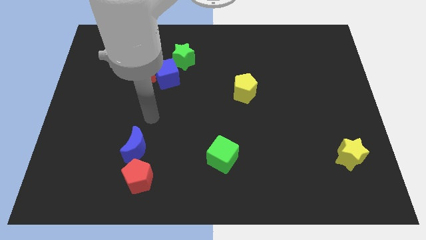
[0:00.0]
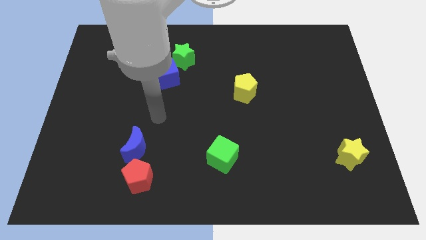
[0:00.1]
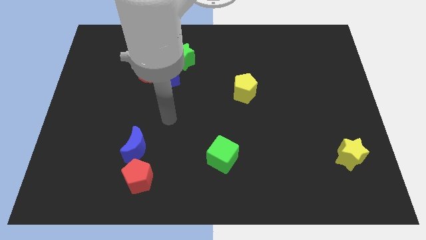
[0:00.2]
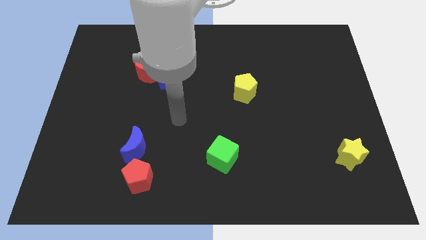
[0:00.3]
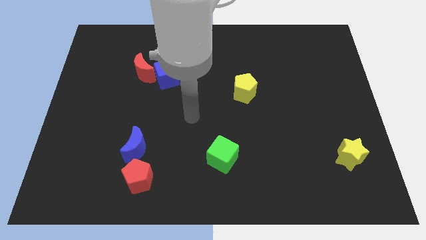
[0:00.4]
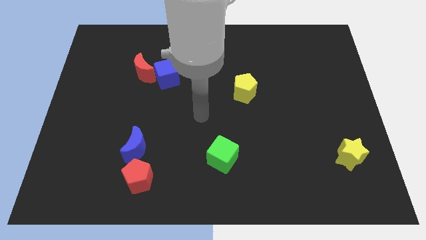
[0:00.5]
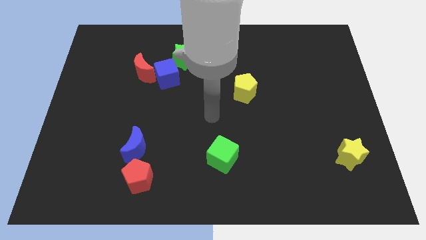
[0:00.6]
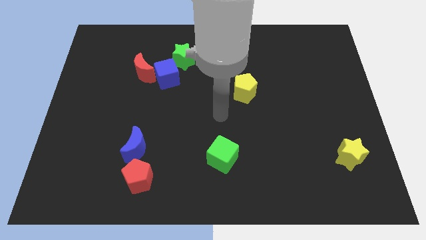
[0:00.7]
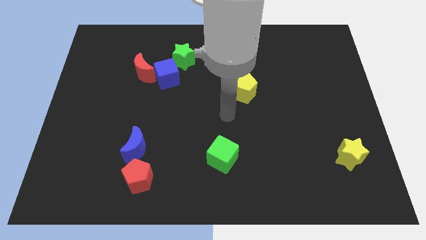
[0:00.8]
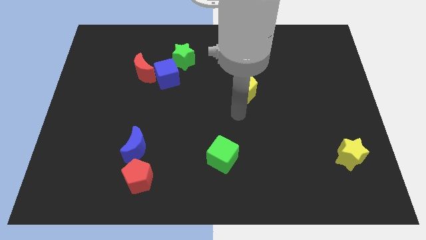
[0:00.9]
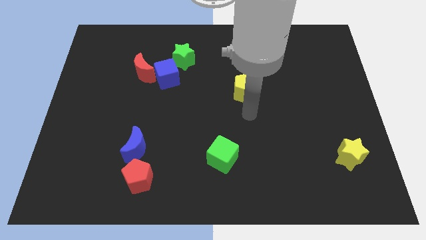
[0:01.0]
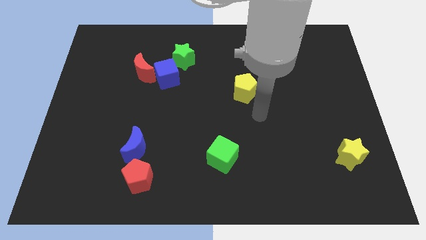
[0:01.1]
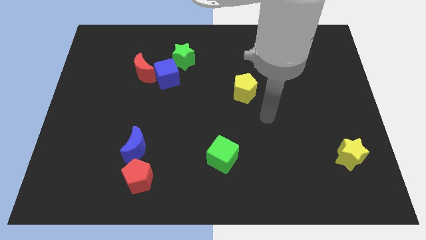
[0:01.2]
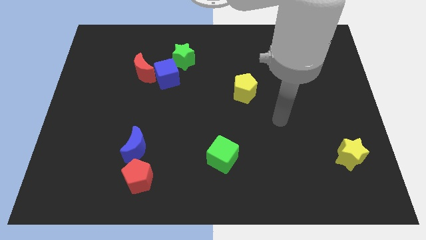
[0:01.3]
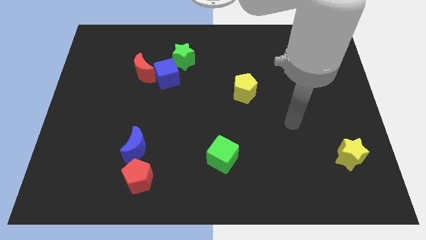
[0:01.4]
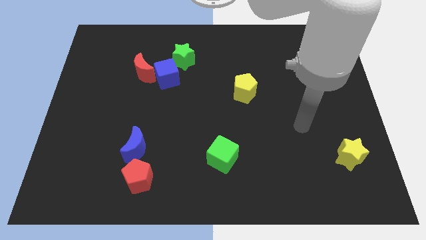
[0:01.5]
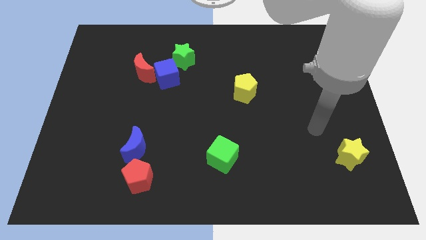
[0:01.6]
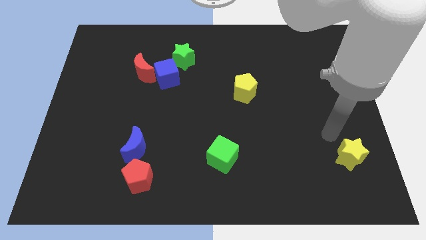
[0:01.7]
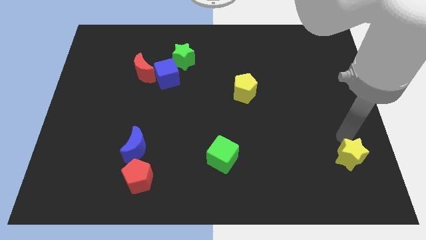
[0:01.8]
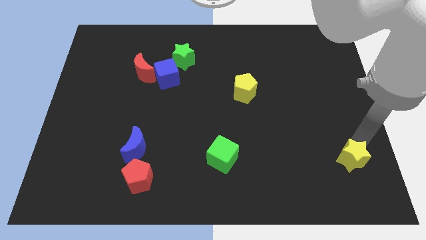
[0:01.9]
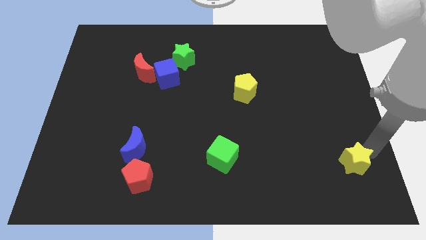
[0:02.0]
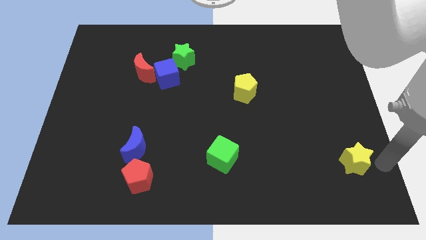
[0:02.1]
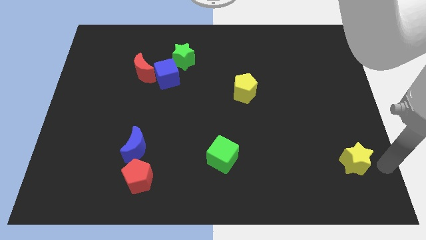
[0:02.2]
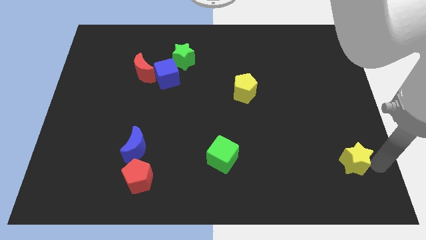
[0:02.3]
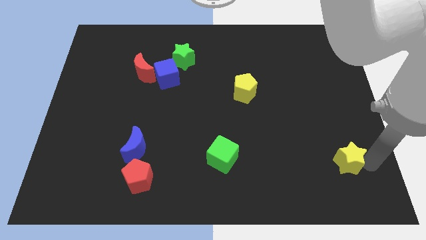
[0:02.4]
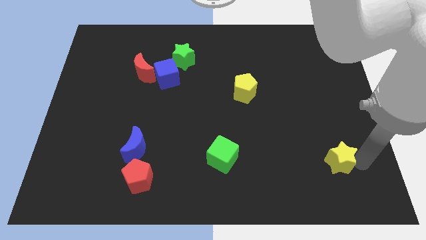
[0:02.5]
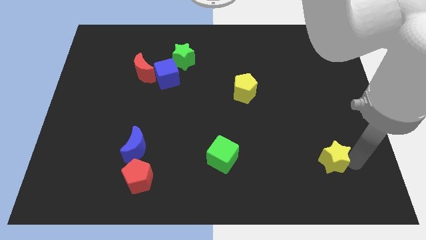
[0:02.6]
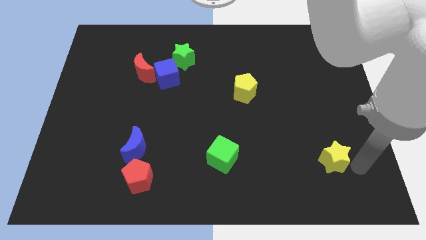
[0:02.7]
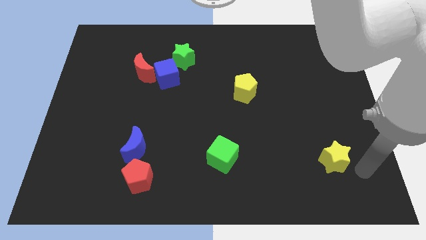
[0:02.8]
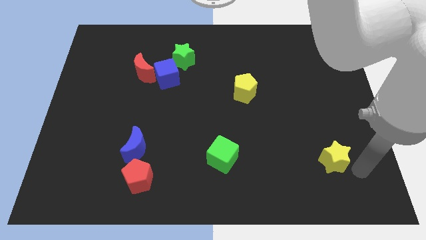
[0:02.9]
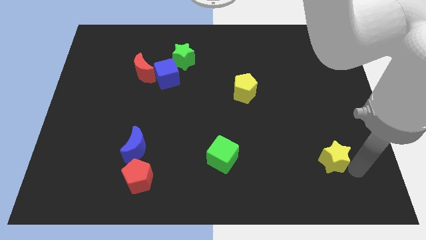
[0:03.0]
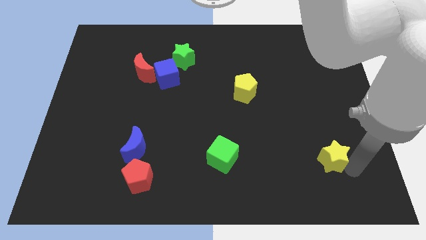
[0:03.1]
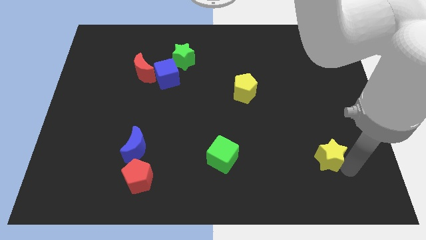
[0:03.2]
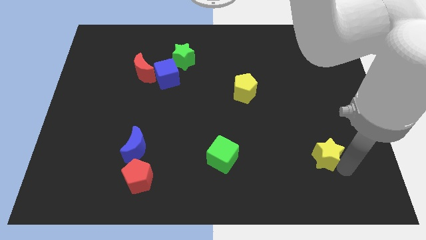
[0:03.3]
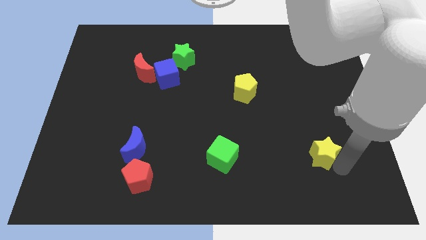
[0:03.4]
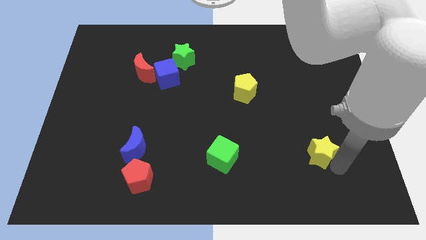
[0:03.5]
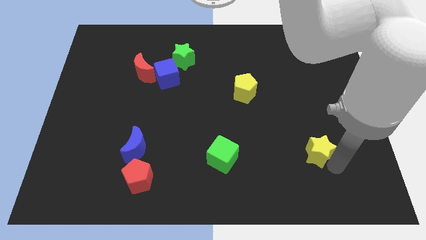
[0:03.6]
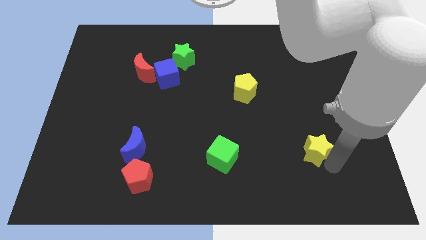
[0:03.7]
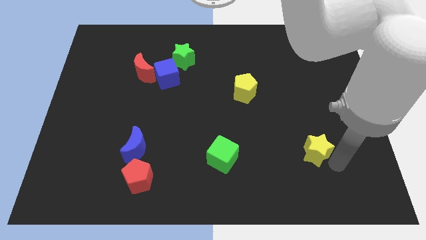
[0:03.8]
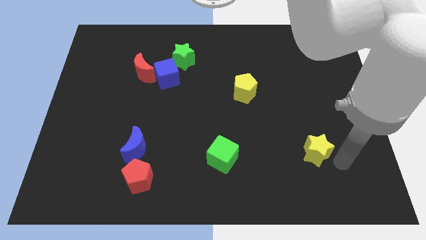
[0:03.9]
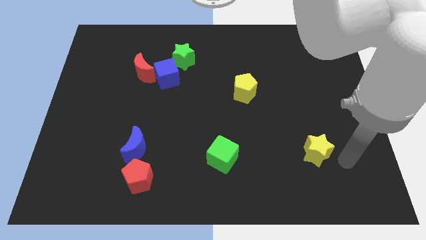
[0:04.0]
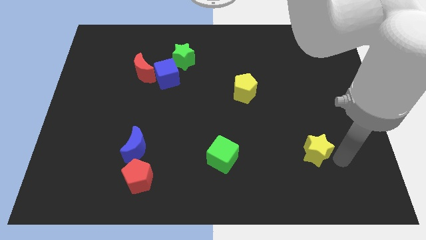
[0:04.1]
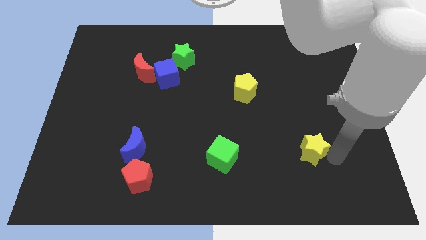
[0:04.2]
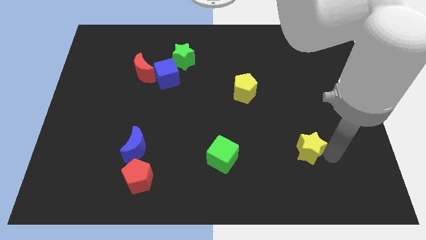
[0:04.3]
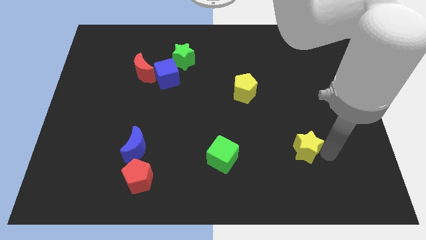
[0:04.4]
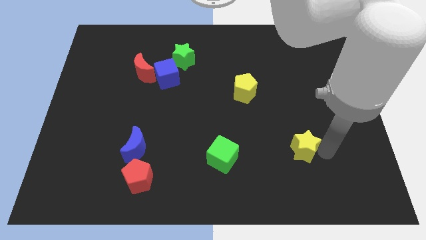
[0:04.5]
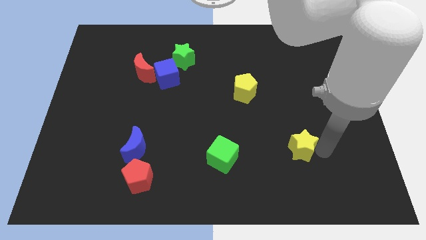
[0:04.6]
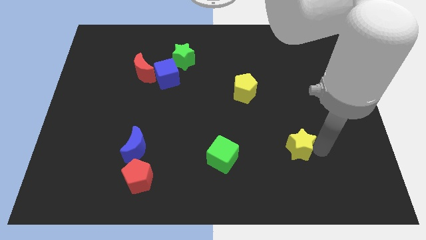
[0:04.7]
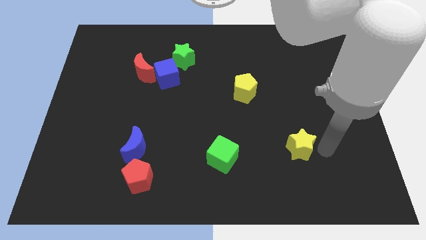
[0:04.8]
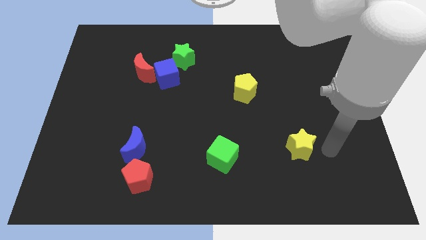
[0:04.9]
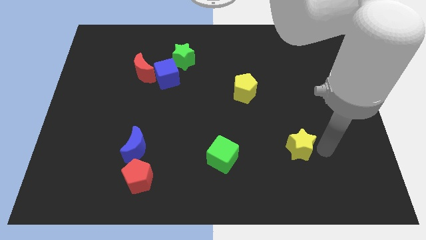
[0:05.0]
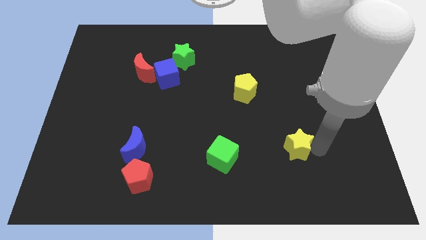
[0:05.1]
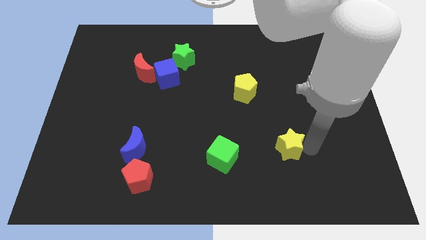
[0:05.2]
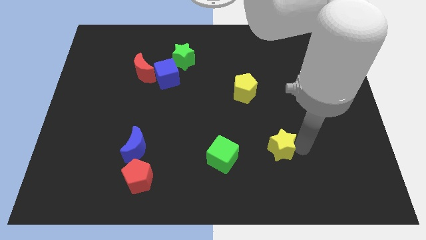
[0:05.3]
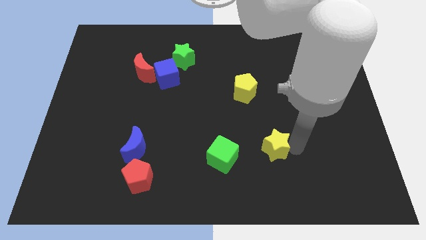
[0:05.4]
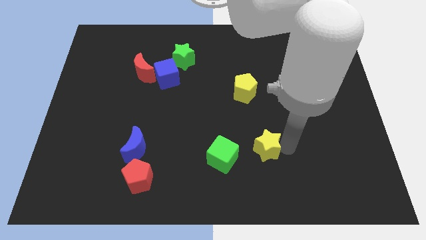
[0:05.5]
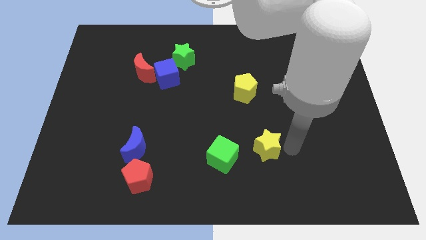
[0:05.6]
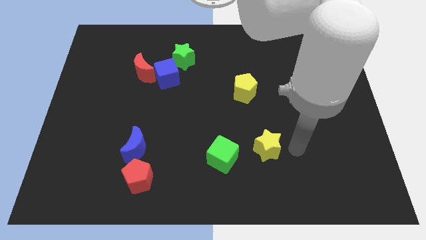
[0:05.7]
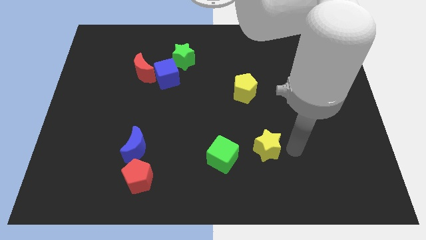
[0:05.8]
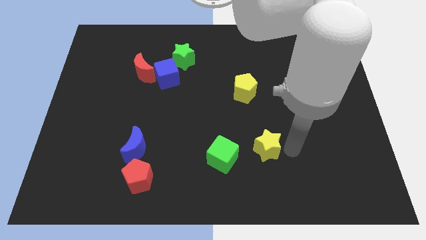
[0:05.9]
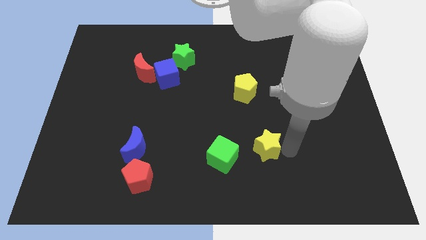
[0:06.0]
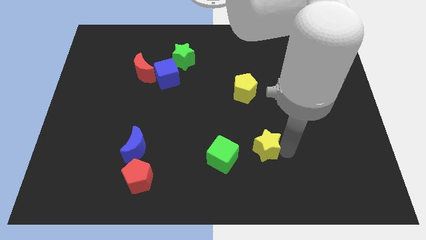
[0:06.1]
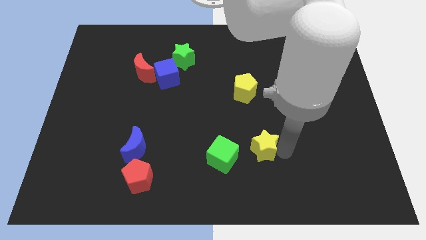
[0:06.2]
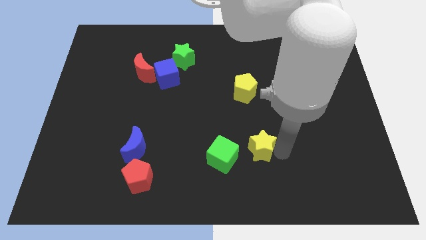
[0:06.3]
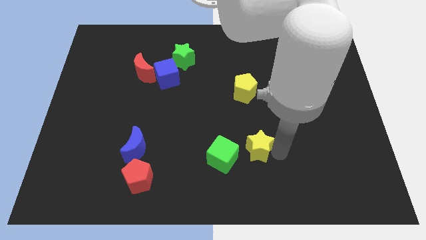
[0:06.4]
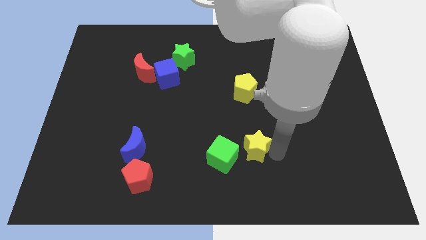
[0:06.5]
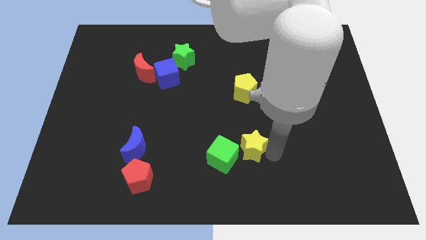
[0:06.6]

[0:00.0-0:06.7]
push the yellow star to the left

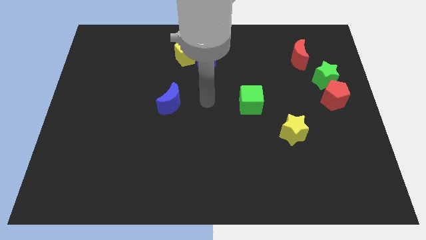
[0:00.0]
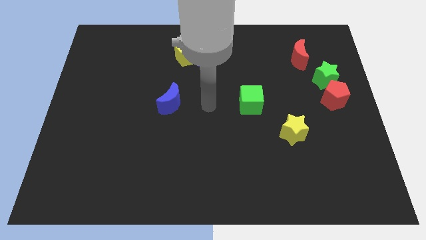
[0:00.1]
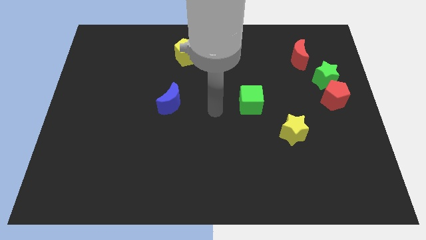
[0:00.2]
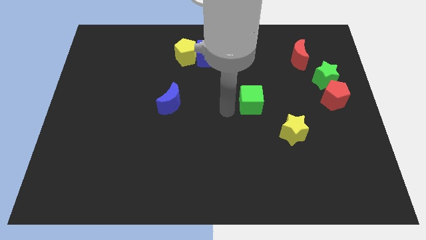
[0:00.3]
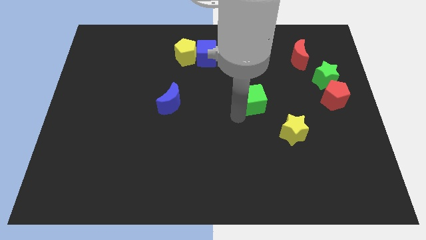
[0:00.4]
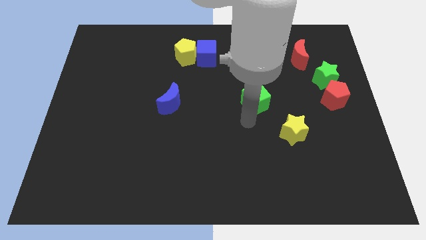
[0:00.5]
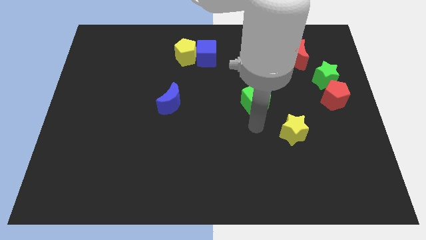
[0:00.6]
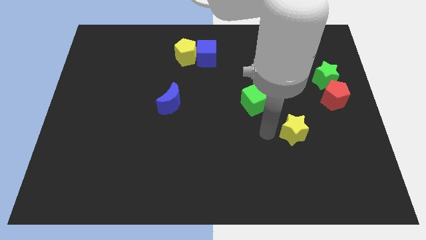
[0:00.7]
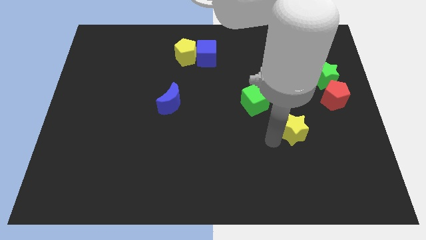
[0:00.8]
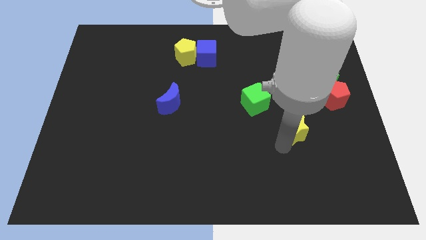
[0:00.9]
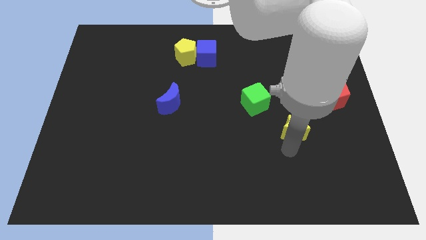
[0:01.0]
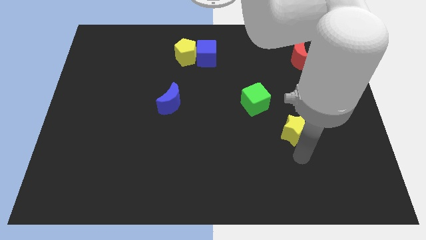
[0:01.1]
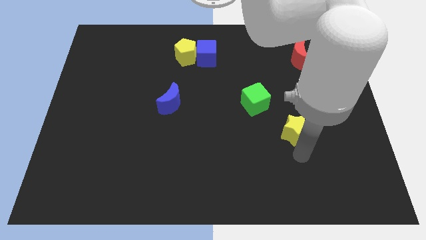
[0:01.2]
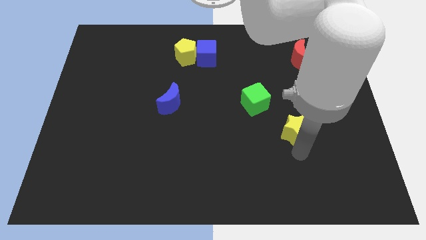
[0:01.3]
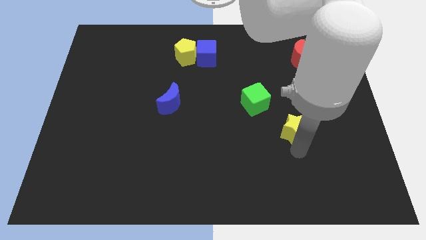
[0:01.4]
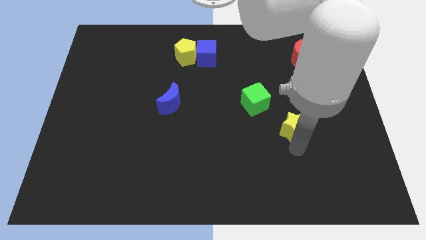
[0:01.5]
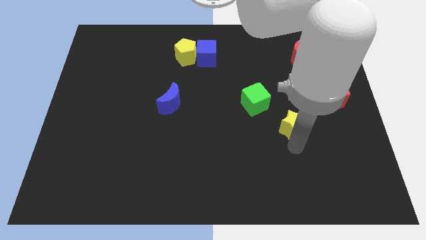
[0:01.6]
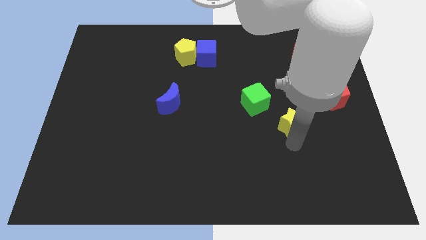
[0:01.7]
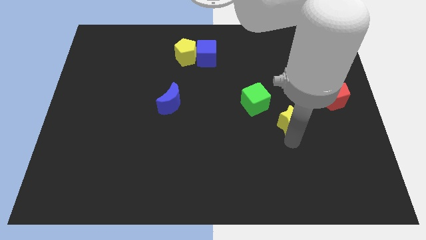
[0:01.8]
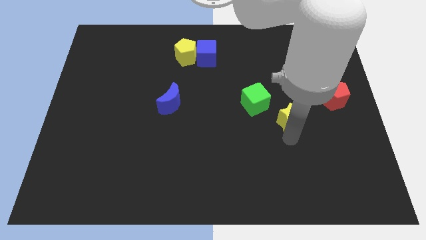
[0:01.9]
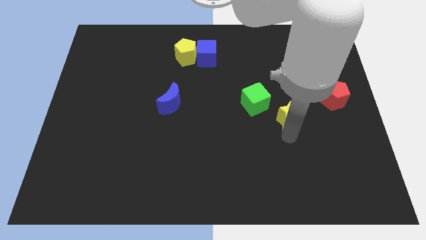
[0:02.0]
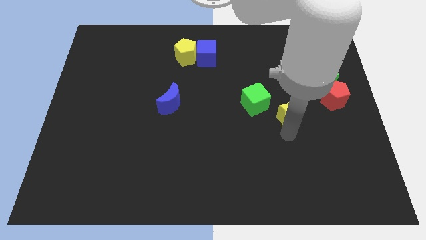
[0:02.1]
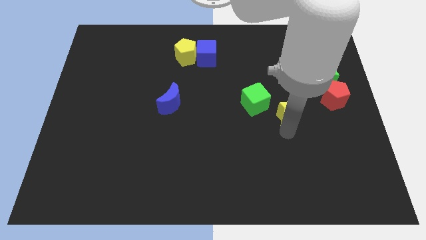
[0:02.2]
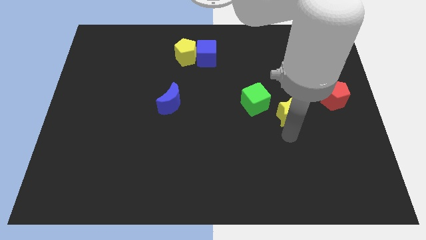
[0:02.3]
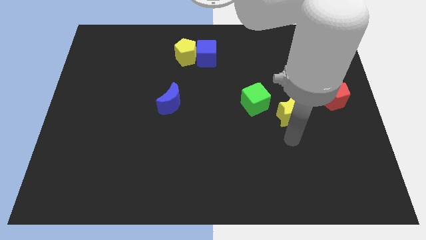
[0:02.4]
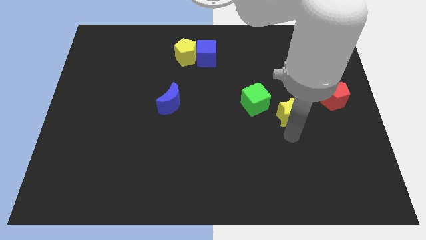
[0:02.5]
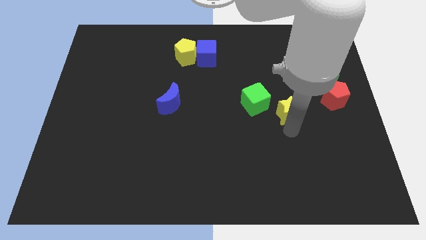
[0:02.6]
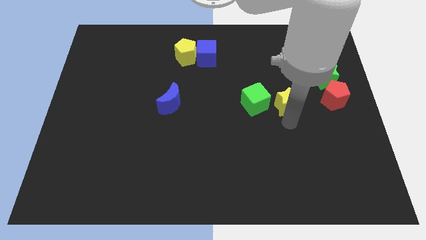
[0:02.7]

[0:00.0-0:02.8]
slightly slide the yellow star upwards
